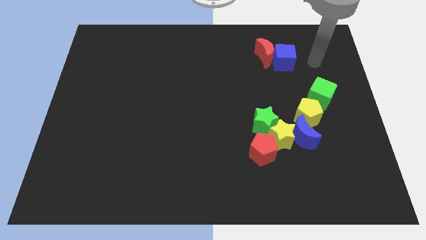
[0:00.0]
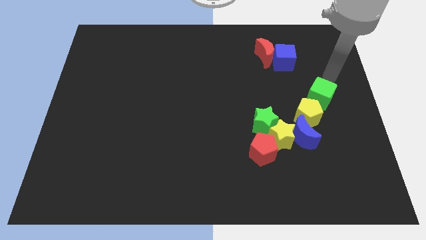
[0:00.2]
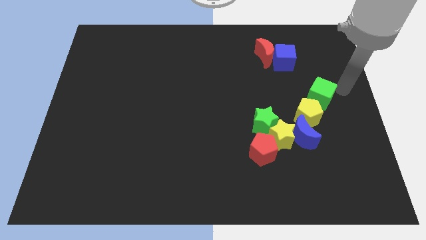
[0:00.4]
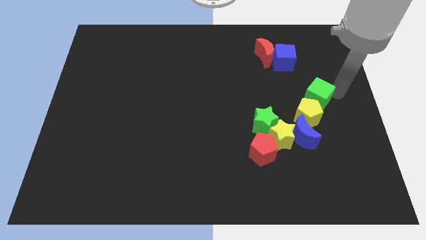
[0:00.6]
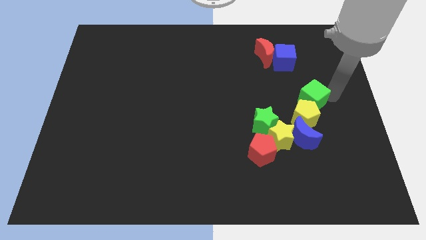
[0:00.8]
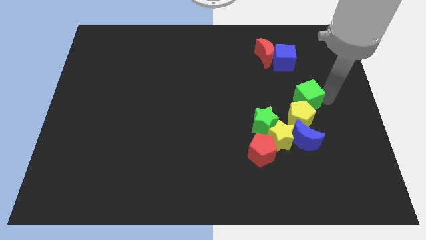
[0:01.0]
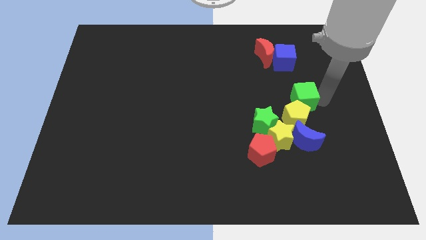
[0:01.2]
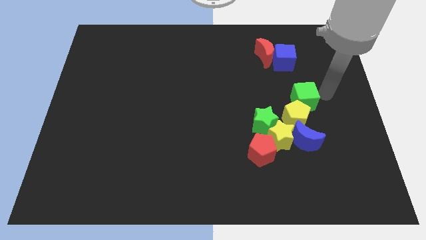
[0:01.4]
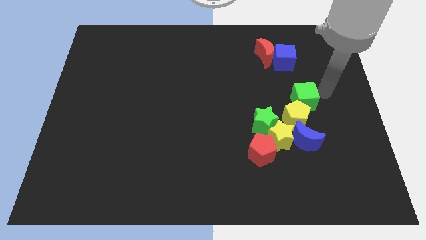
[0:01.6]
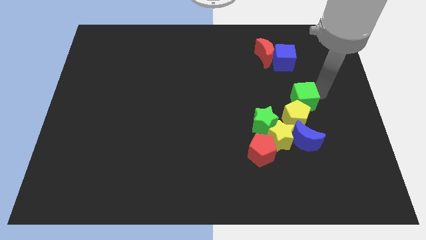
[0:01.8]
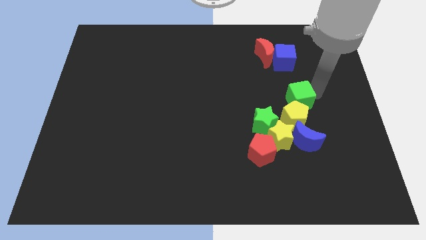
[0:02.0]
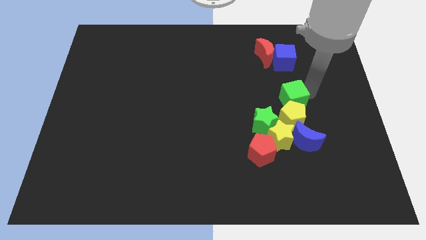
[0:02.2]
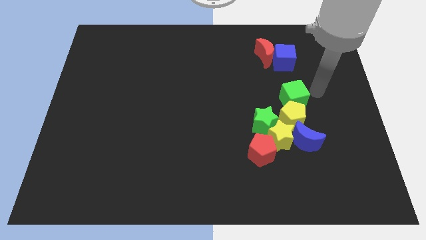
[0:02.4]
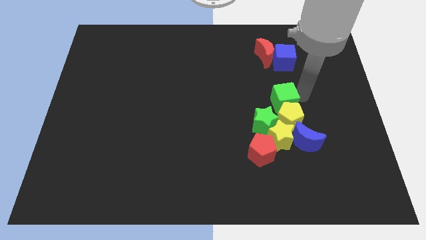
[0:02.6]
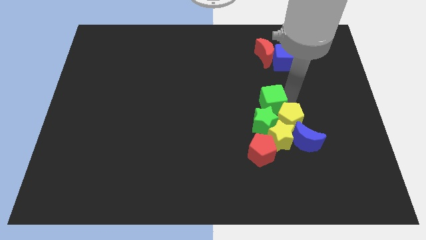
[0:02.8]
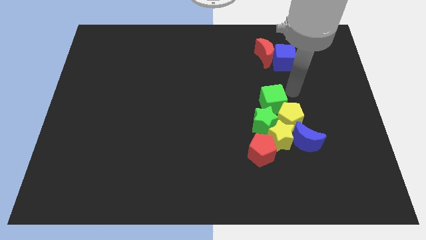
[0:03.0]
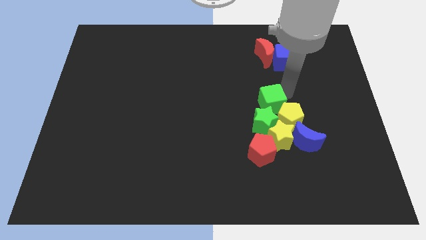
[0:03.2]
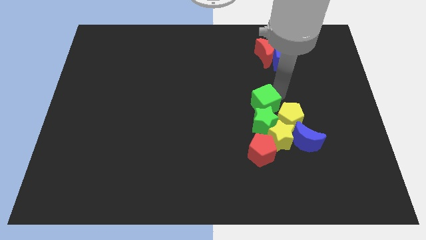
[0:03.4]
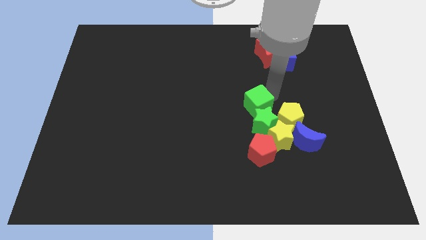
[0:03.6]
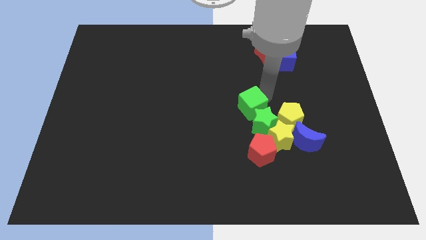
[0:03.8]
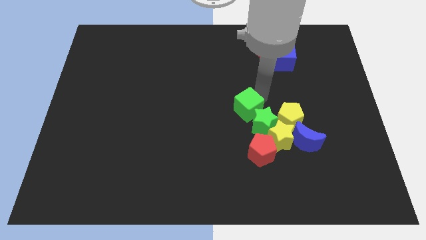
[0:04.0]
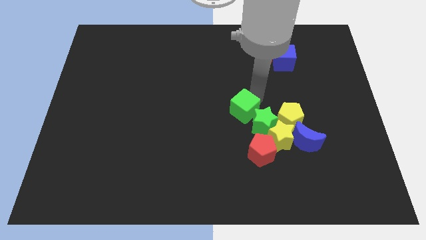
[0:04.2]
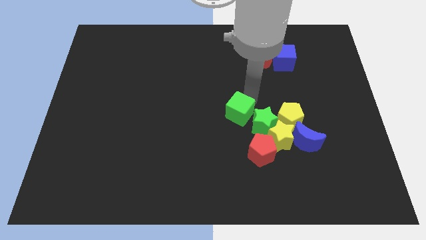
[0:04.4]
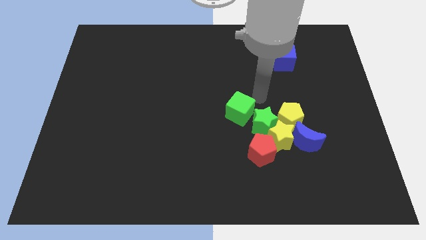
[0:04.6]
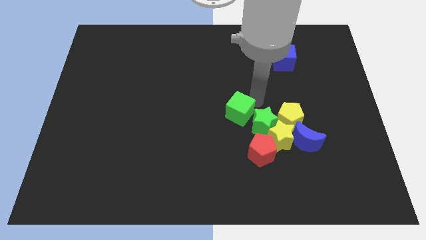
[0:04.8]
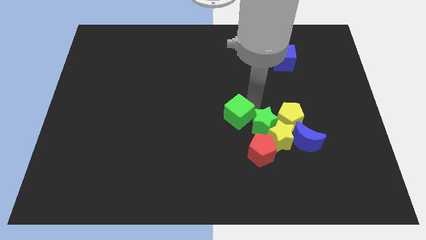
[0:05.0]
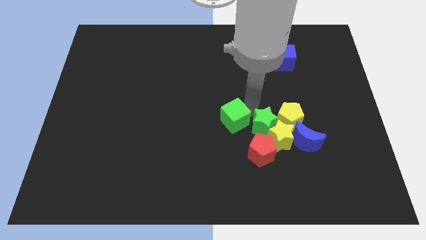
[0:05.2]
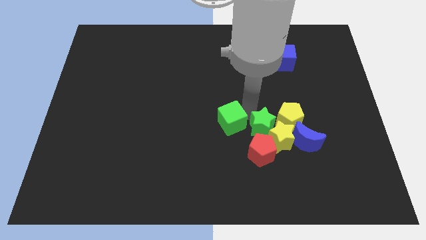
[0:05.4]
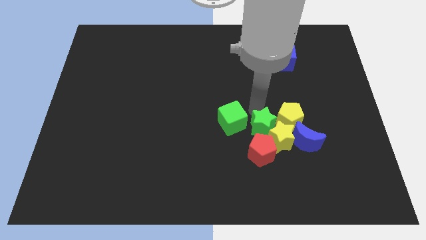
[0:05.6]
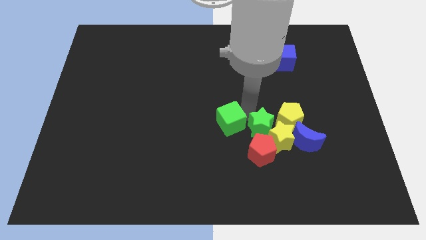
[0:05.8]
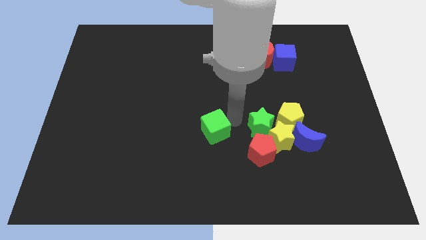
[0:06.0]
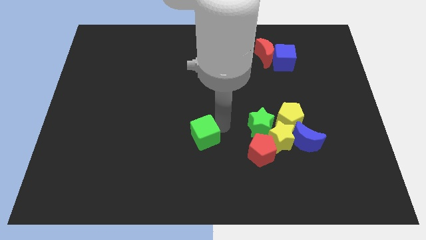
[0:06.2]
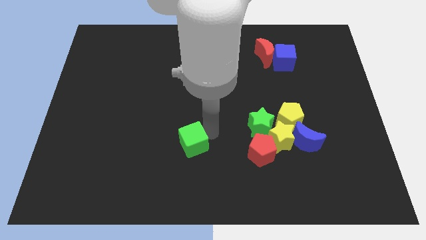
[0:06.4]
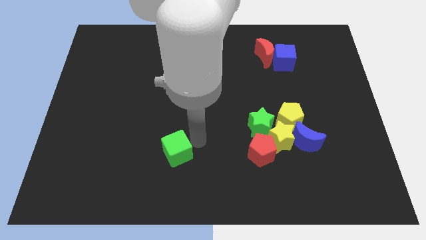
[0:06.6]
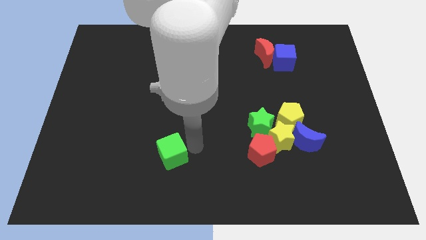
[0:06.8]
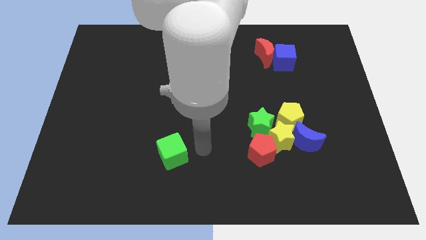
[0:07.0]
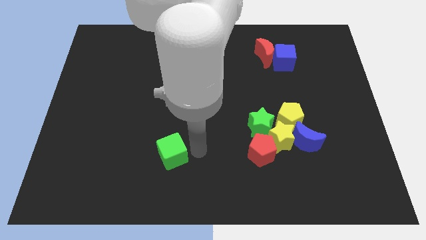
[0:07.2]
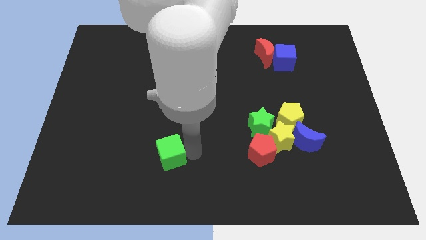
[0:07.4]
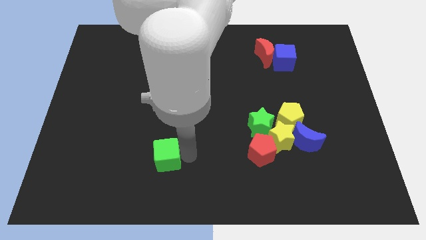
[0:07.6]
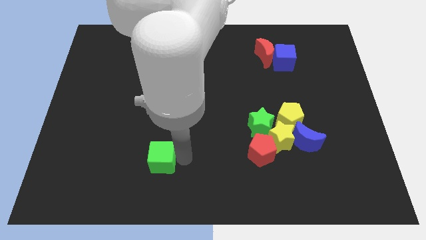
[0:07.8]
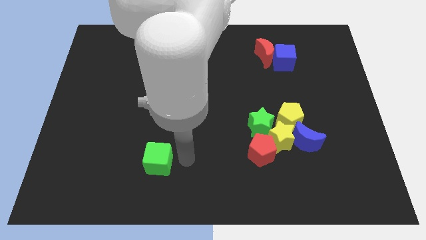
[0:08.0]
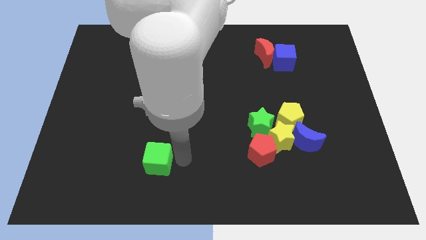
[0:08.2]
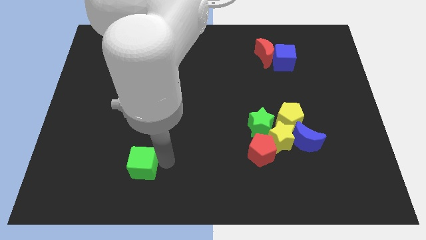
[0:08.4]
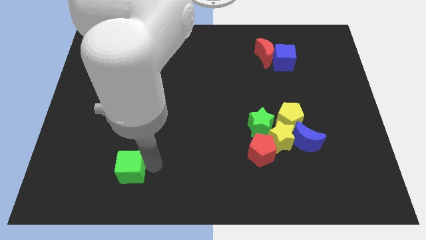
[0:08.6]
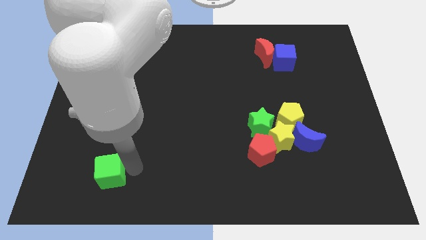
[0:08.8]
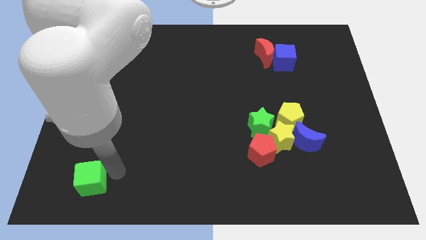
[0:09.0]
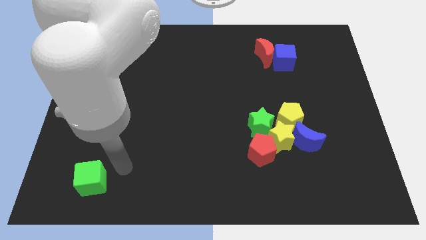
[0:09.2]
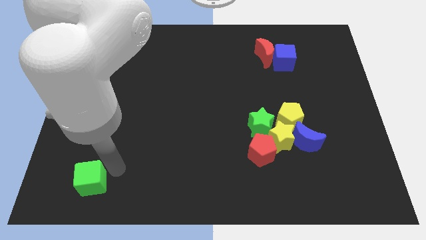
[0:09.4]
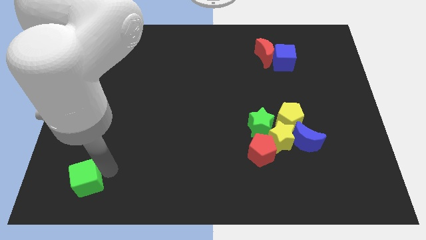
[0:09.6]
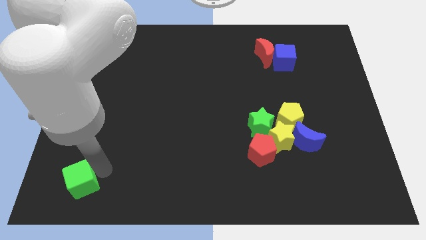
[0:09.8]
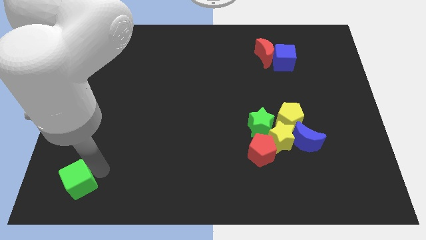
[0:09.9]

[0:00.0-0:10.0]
slide the green cube to the bottom left of the board

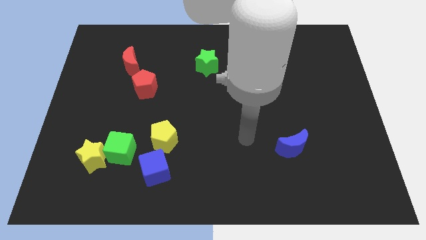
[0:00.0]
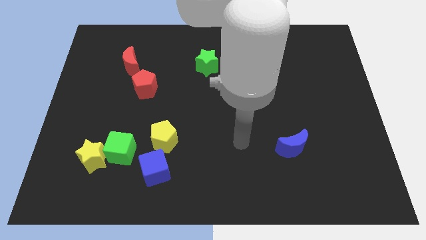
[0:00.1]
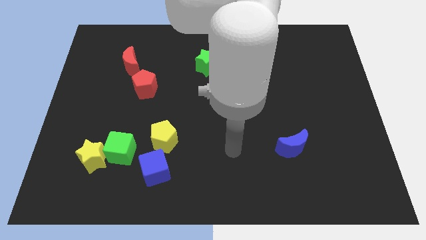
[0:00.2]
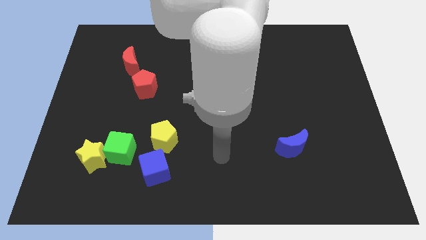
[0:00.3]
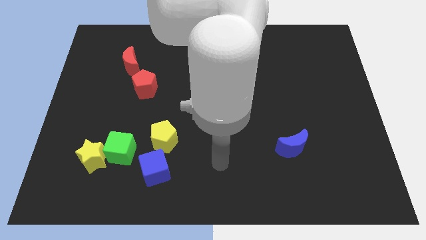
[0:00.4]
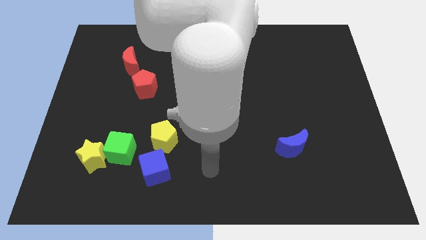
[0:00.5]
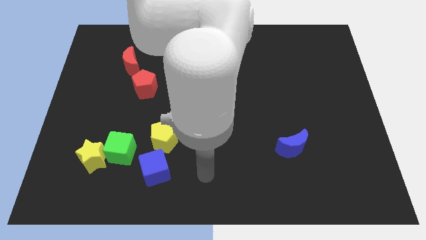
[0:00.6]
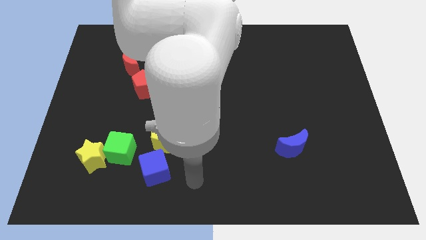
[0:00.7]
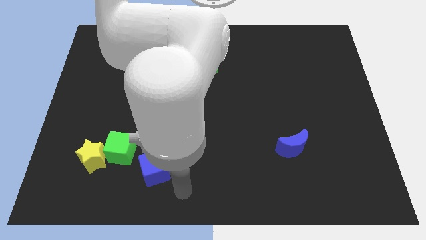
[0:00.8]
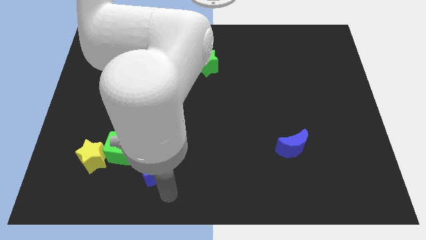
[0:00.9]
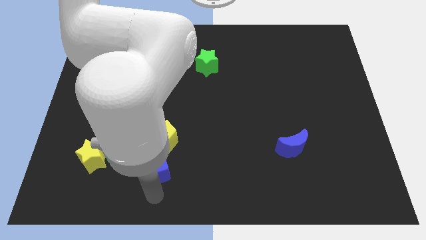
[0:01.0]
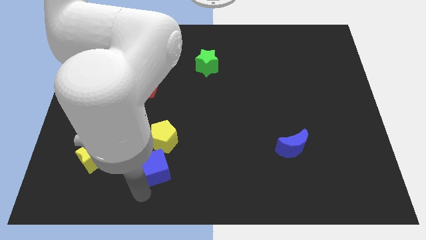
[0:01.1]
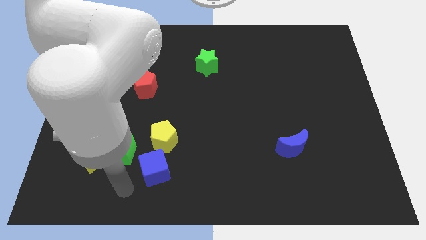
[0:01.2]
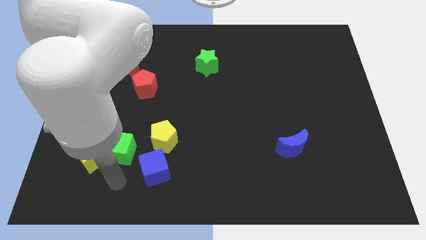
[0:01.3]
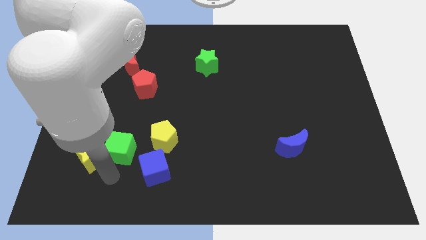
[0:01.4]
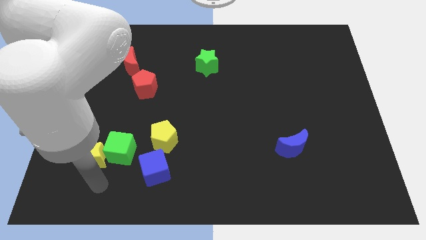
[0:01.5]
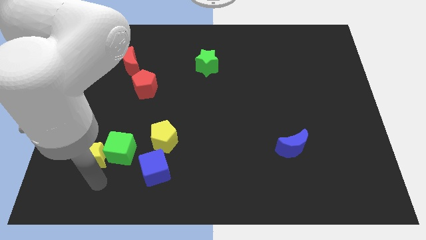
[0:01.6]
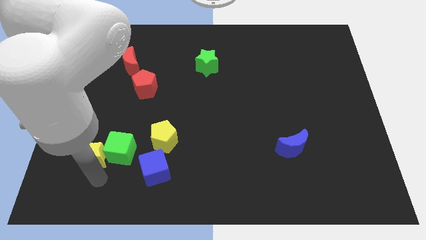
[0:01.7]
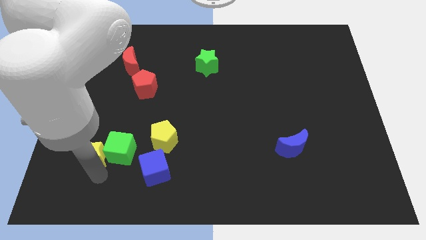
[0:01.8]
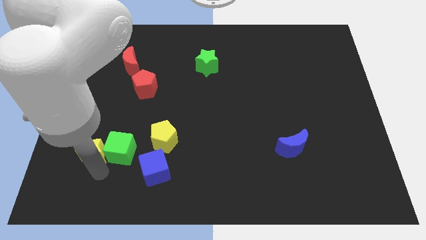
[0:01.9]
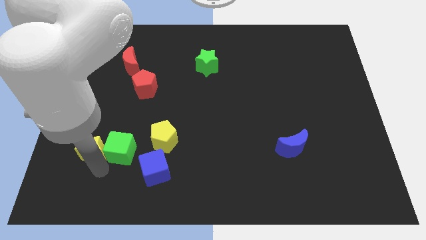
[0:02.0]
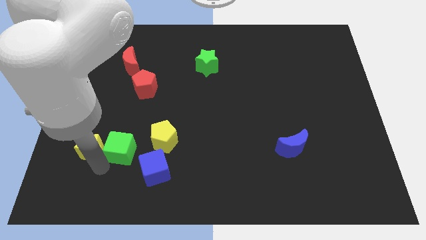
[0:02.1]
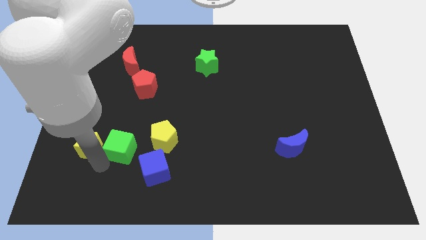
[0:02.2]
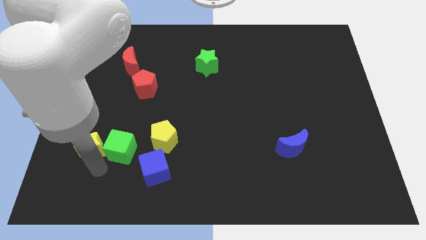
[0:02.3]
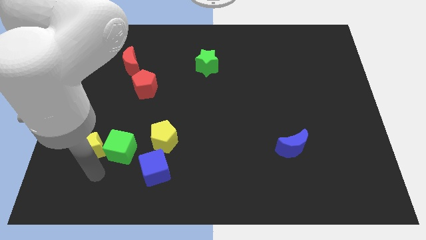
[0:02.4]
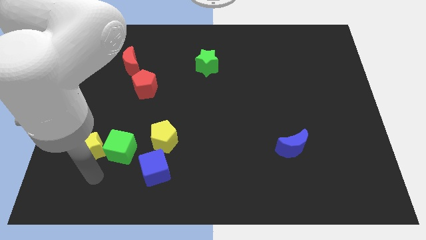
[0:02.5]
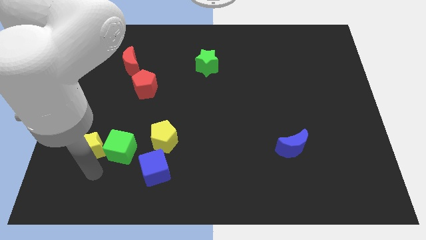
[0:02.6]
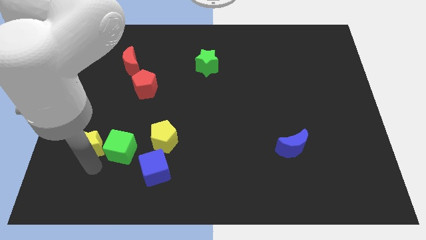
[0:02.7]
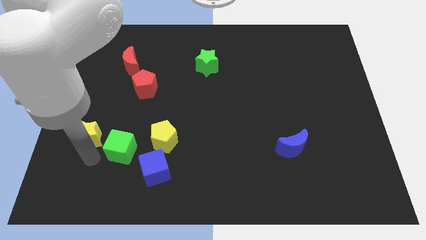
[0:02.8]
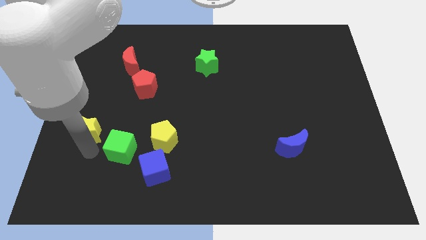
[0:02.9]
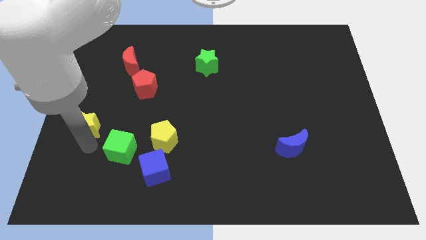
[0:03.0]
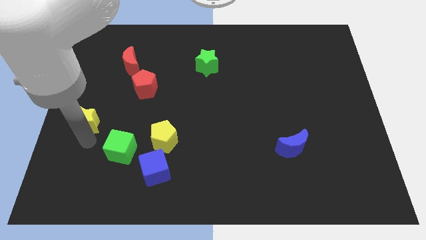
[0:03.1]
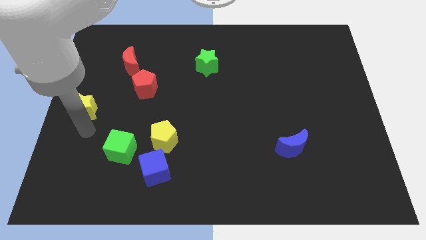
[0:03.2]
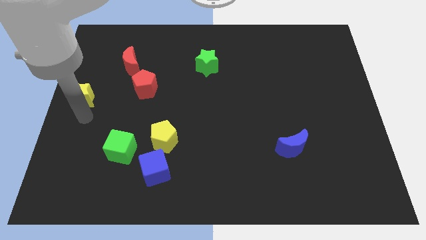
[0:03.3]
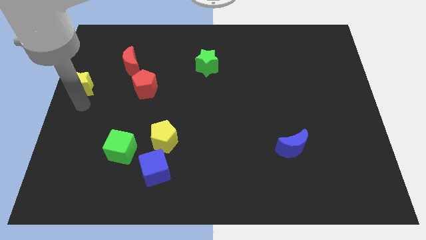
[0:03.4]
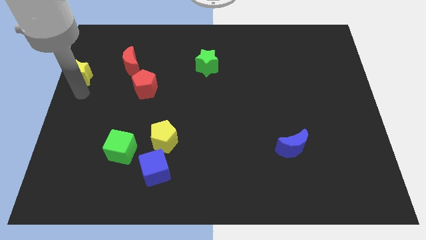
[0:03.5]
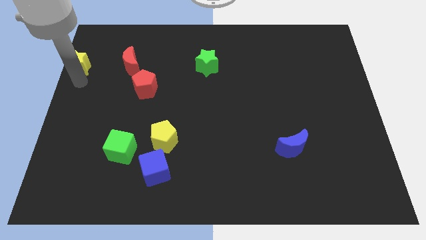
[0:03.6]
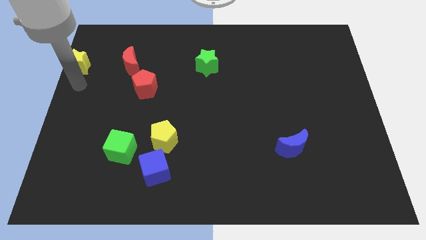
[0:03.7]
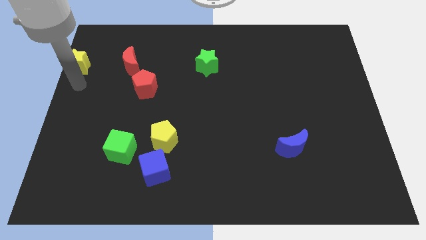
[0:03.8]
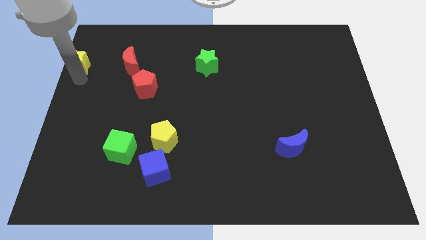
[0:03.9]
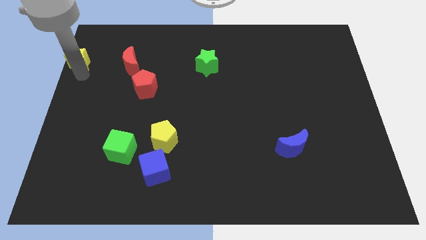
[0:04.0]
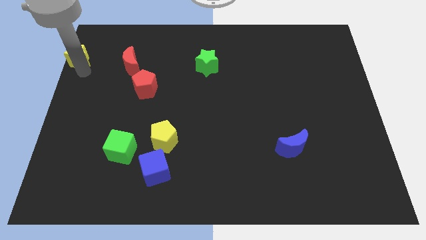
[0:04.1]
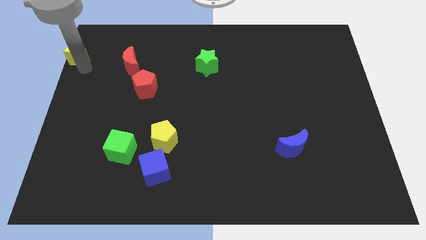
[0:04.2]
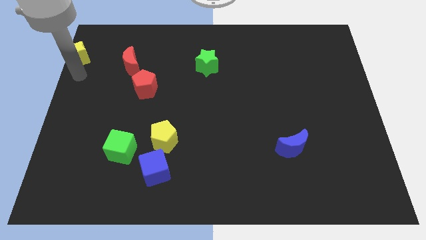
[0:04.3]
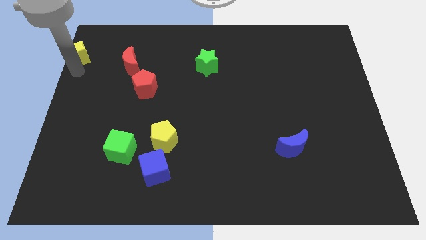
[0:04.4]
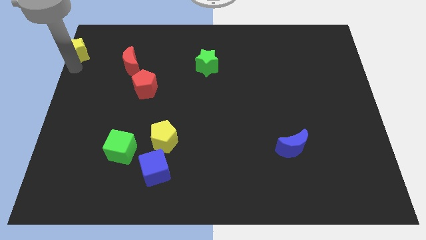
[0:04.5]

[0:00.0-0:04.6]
move the yellow star to the upper left corner
